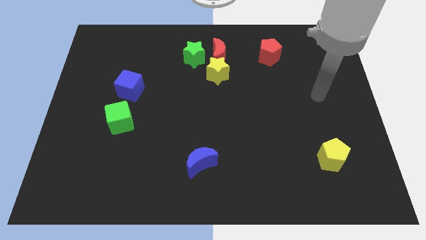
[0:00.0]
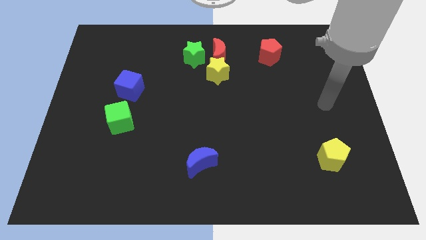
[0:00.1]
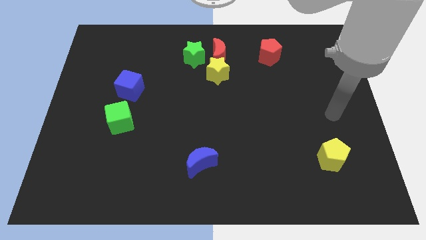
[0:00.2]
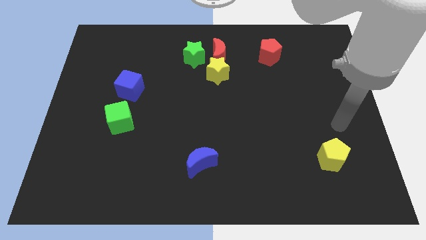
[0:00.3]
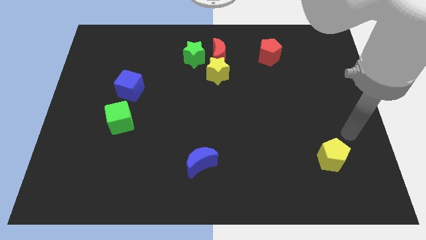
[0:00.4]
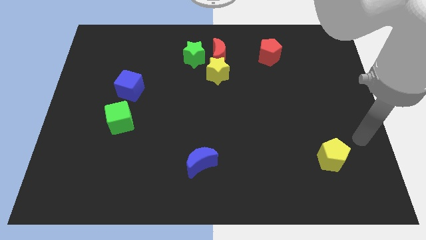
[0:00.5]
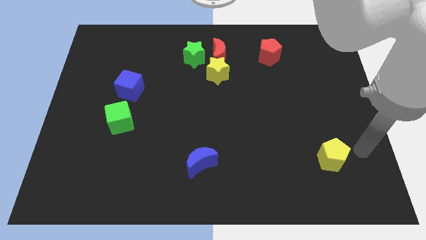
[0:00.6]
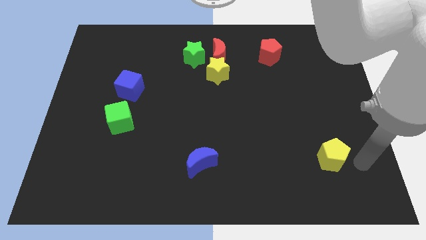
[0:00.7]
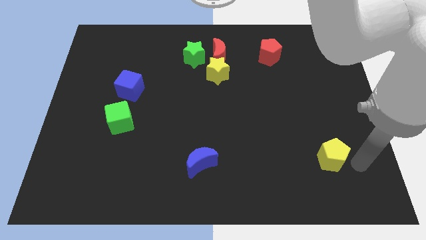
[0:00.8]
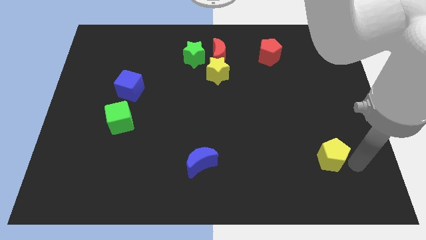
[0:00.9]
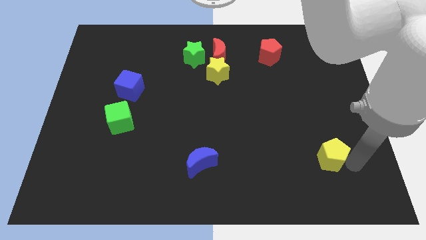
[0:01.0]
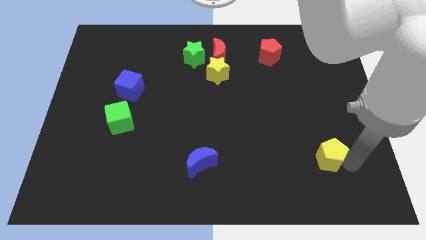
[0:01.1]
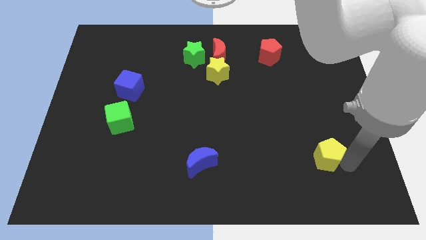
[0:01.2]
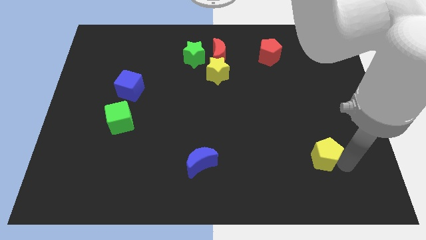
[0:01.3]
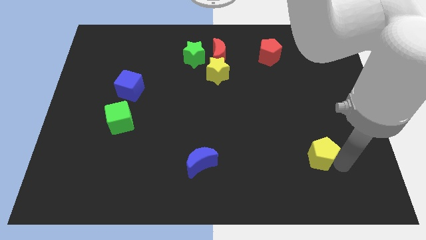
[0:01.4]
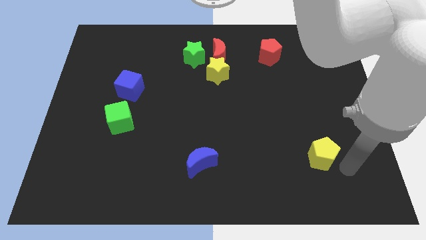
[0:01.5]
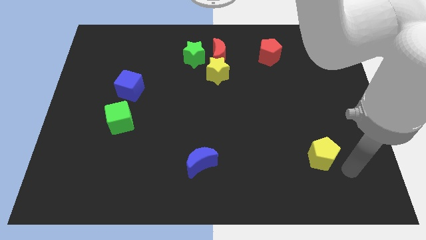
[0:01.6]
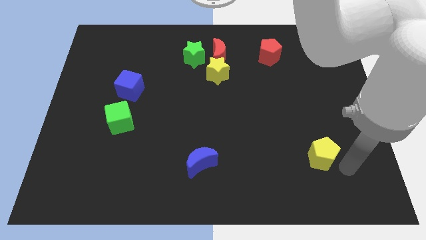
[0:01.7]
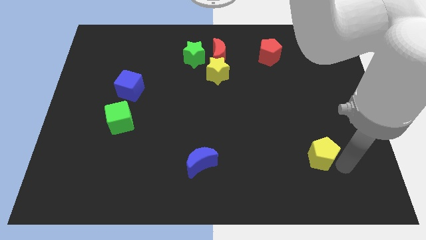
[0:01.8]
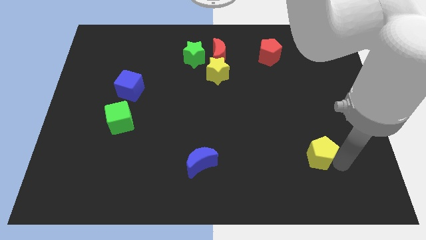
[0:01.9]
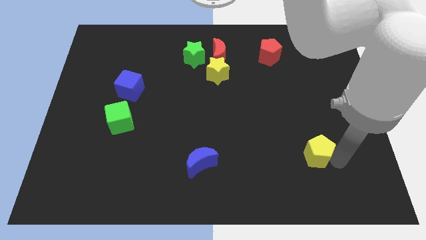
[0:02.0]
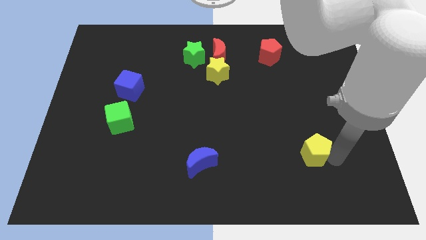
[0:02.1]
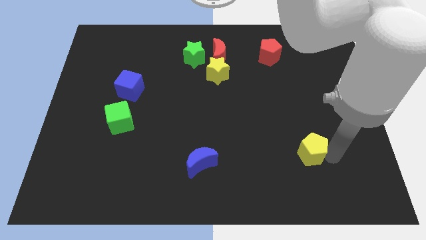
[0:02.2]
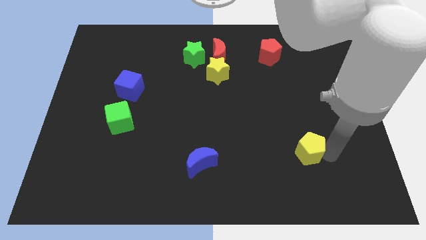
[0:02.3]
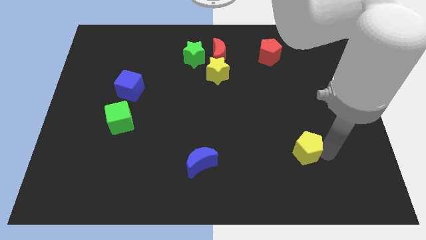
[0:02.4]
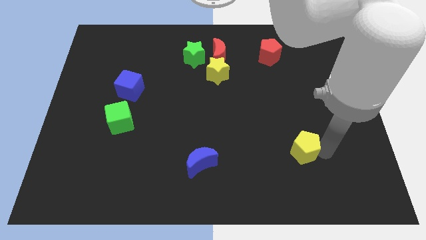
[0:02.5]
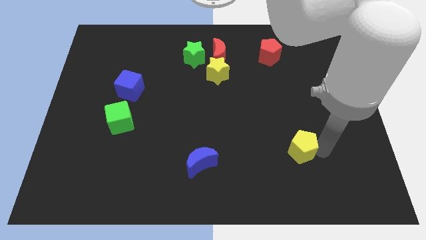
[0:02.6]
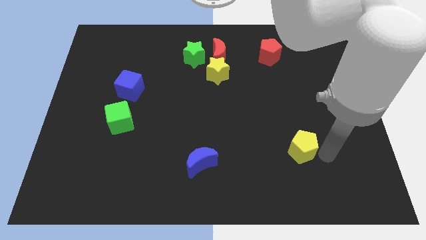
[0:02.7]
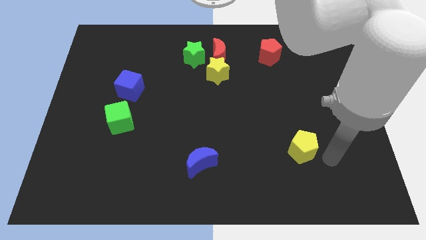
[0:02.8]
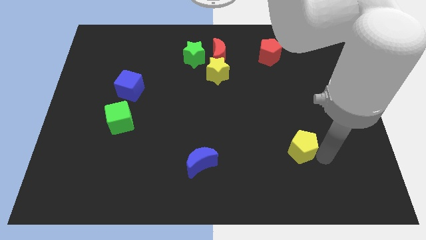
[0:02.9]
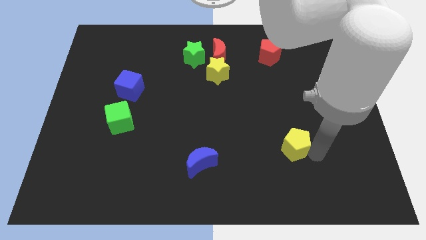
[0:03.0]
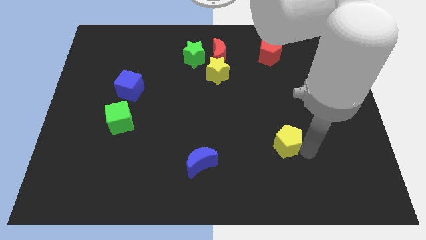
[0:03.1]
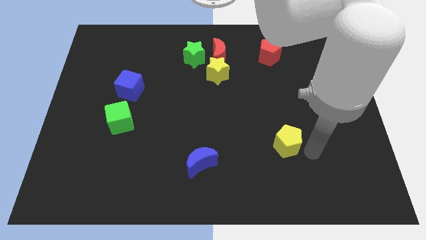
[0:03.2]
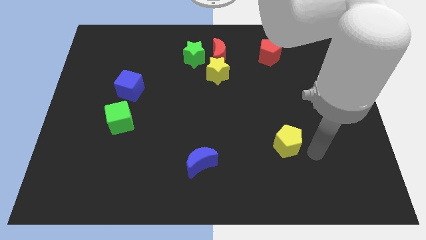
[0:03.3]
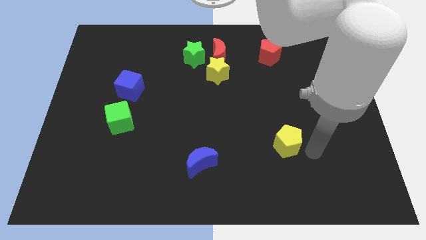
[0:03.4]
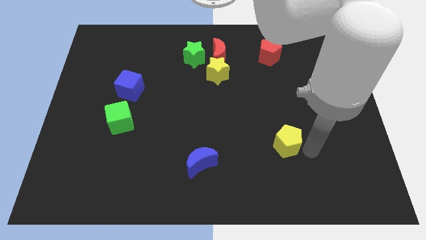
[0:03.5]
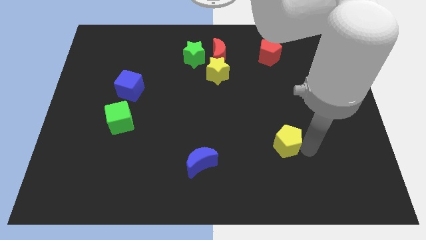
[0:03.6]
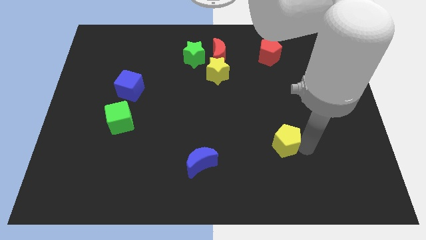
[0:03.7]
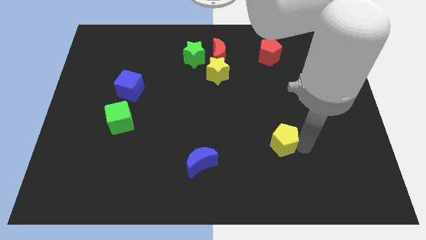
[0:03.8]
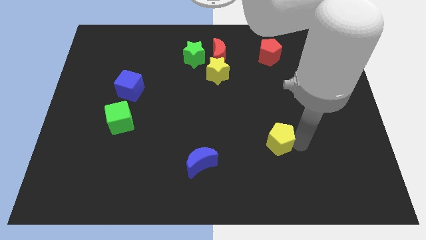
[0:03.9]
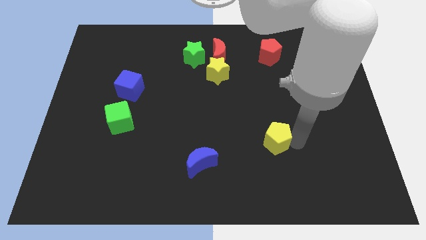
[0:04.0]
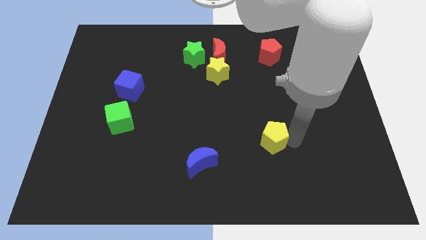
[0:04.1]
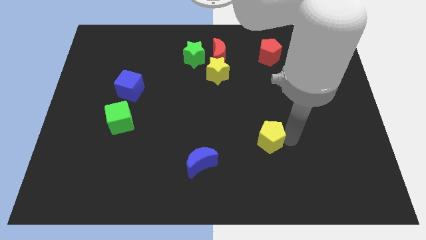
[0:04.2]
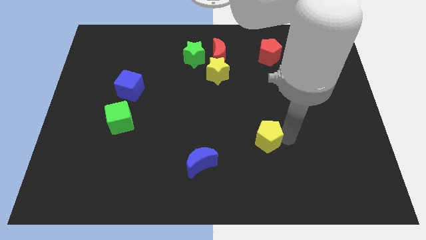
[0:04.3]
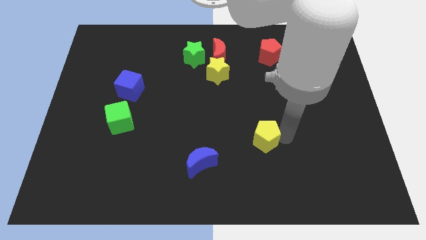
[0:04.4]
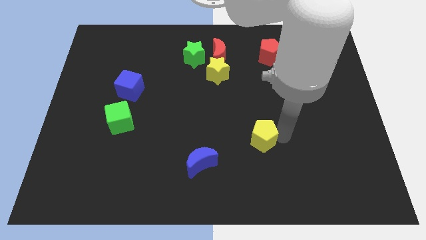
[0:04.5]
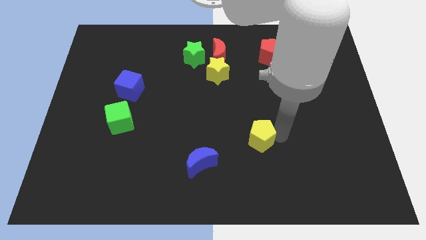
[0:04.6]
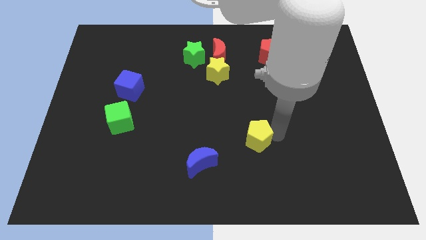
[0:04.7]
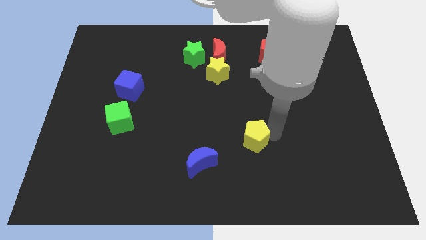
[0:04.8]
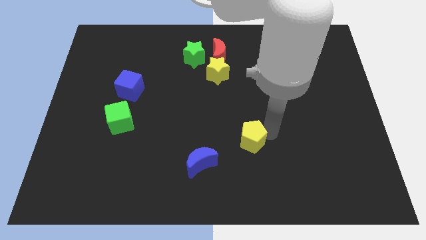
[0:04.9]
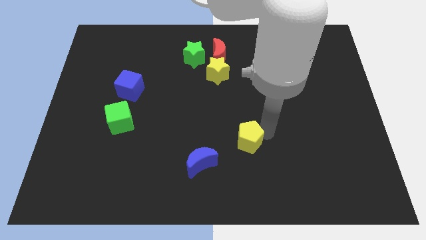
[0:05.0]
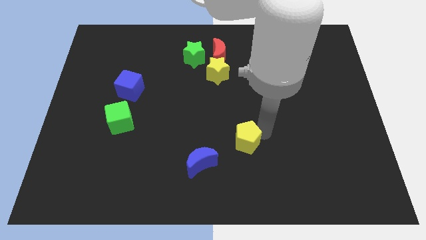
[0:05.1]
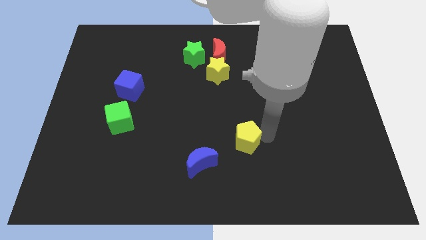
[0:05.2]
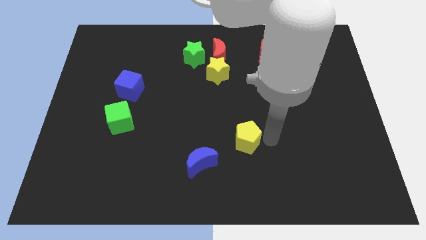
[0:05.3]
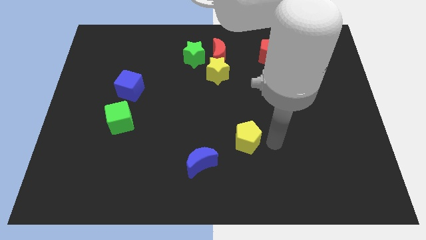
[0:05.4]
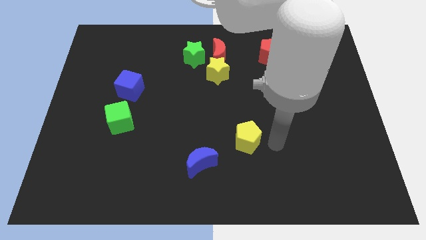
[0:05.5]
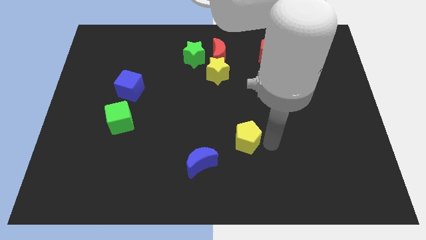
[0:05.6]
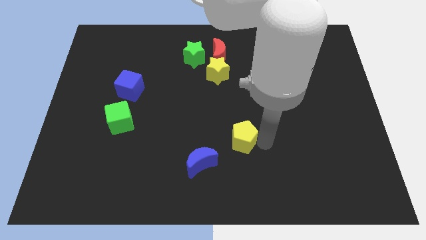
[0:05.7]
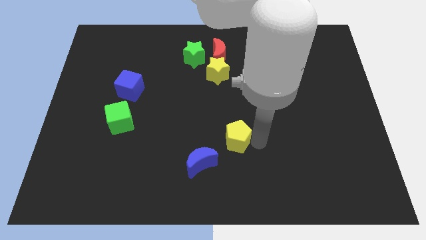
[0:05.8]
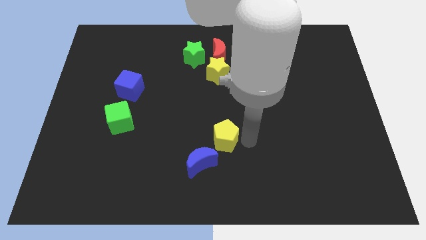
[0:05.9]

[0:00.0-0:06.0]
move the yellow pentagon to the left

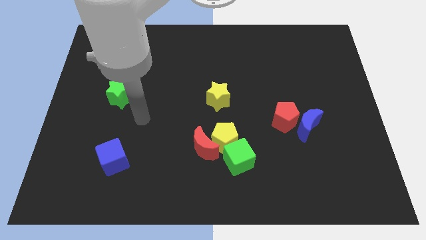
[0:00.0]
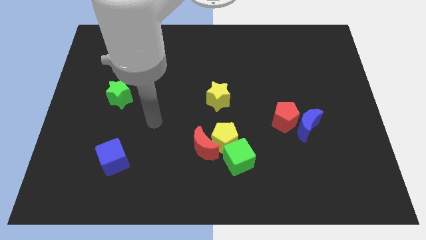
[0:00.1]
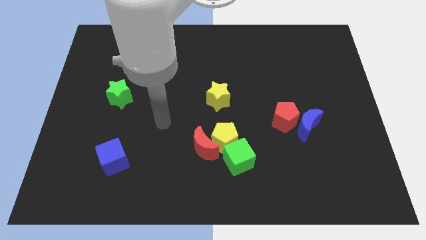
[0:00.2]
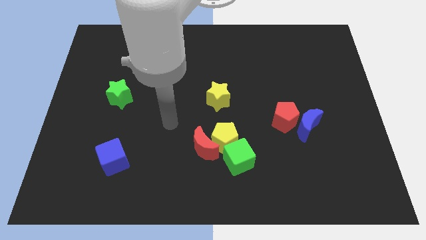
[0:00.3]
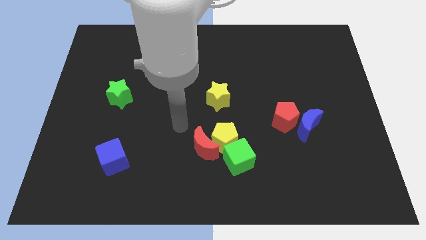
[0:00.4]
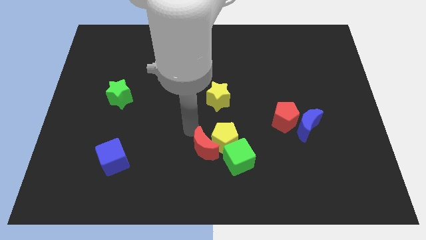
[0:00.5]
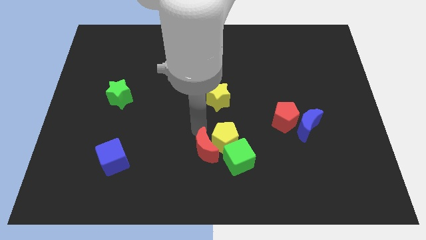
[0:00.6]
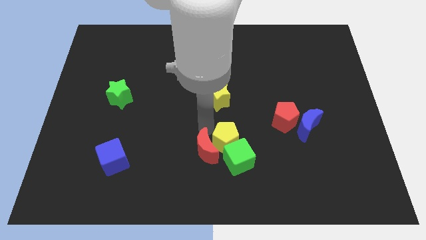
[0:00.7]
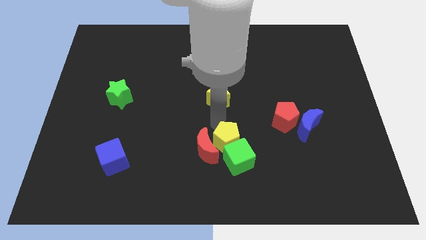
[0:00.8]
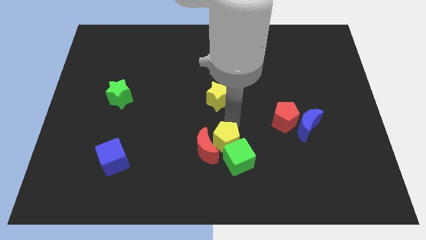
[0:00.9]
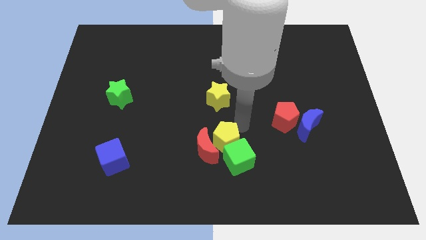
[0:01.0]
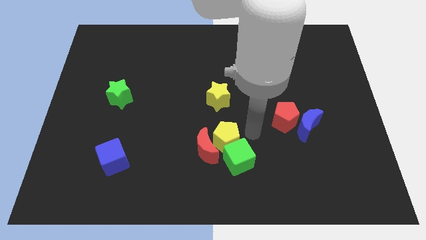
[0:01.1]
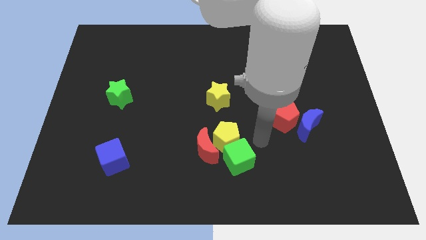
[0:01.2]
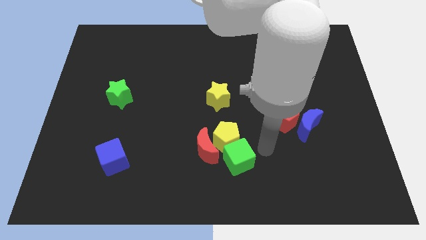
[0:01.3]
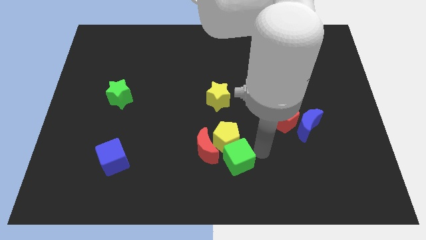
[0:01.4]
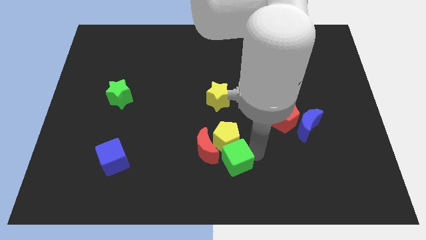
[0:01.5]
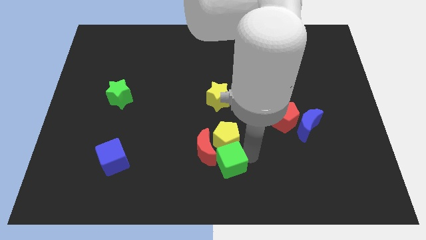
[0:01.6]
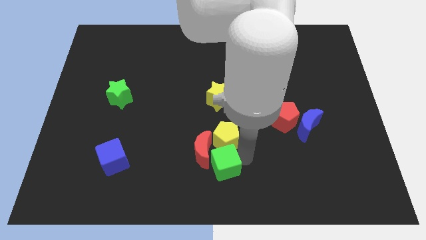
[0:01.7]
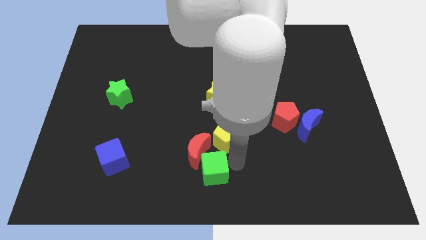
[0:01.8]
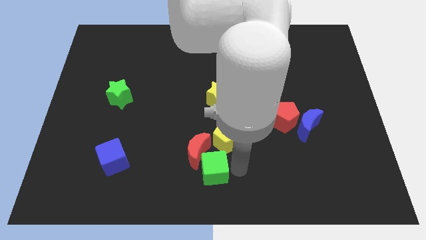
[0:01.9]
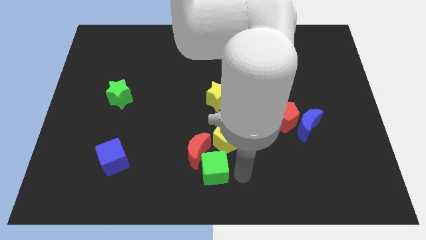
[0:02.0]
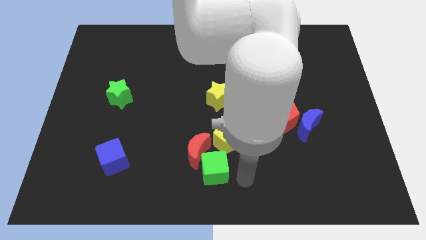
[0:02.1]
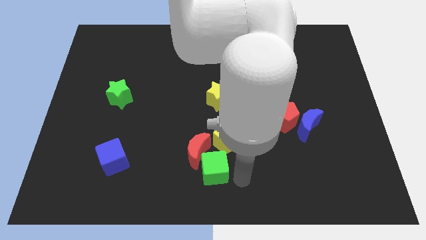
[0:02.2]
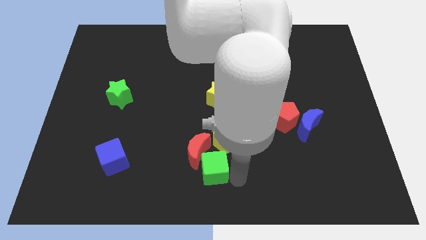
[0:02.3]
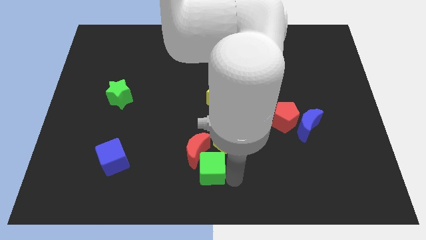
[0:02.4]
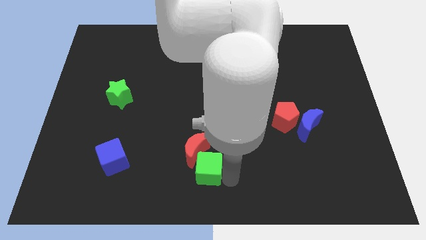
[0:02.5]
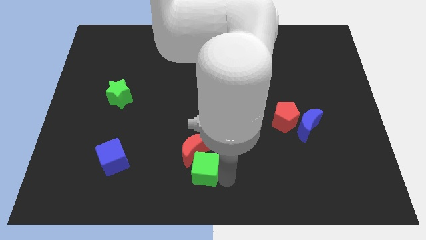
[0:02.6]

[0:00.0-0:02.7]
slide the green cube somewhat left
